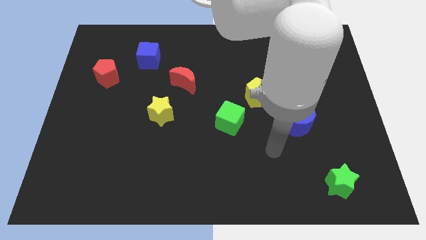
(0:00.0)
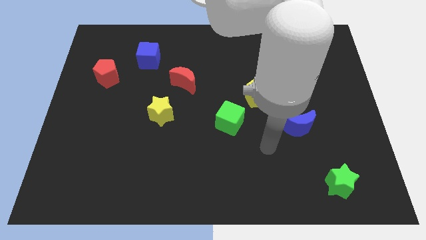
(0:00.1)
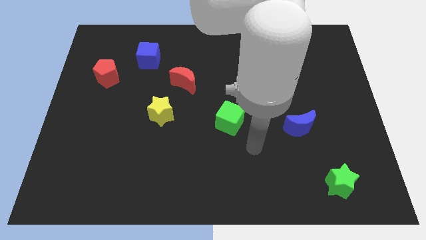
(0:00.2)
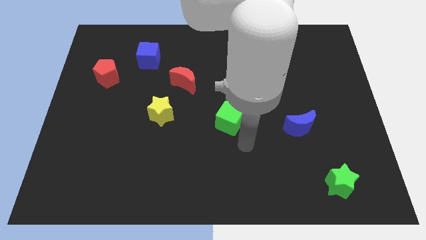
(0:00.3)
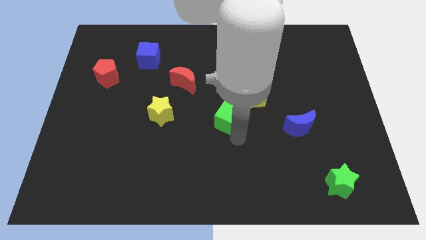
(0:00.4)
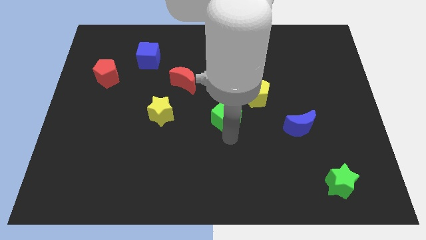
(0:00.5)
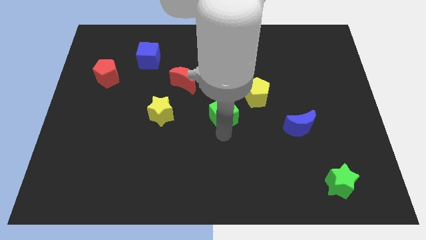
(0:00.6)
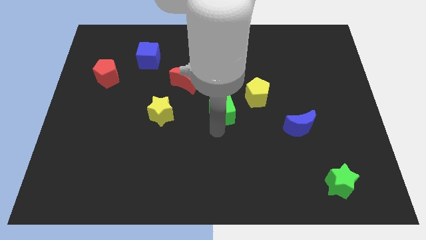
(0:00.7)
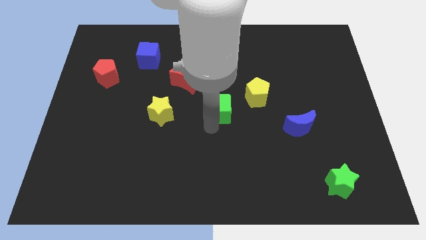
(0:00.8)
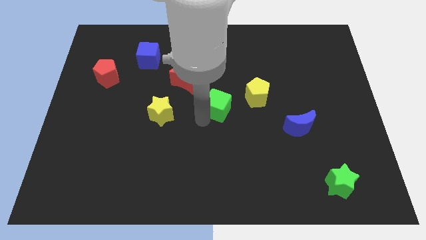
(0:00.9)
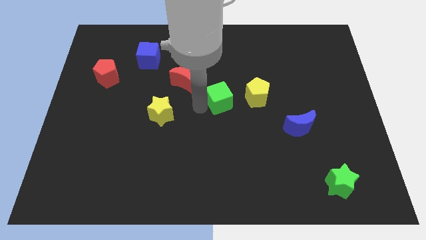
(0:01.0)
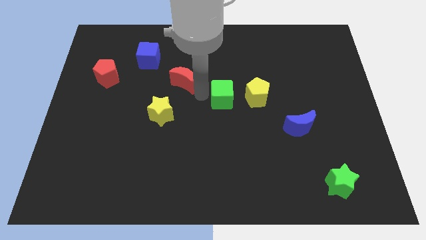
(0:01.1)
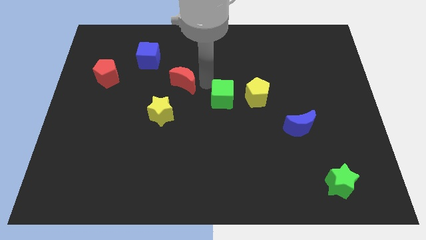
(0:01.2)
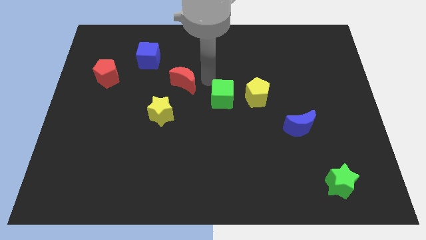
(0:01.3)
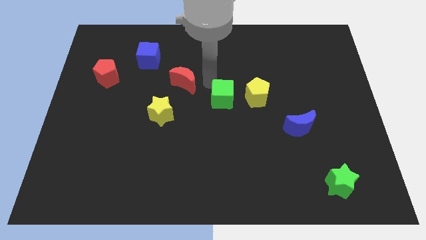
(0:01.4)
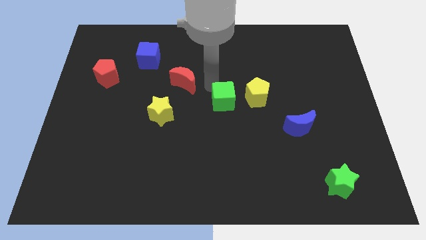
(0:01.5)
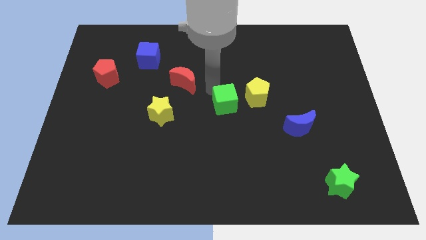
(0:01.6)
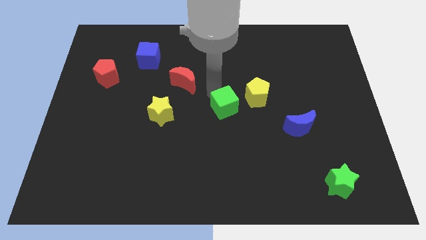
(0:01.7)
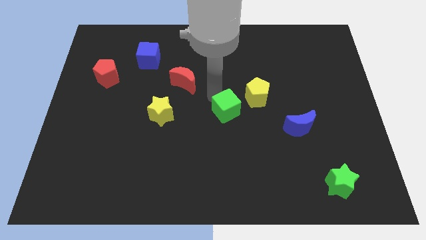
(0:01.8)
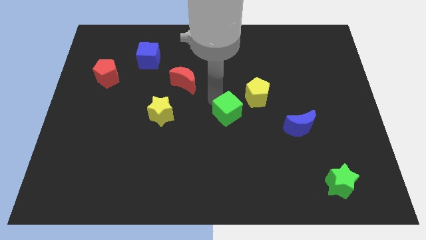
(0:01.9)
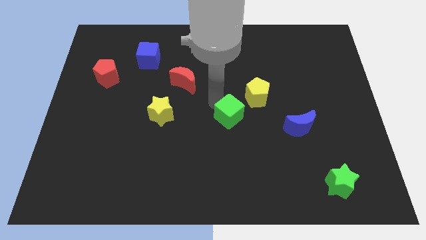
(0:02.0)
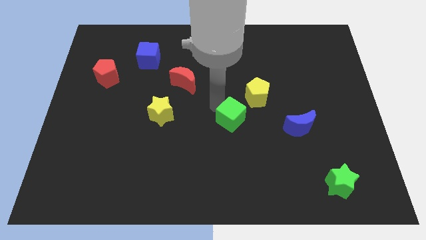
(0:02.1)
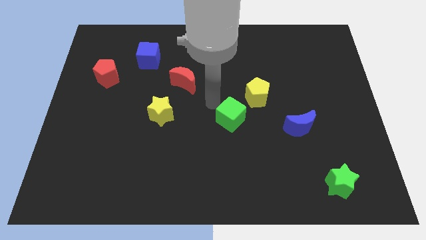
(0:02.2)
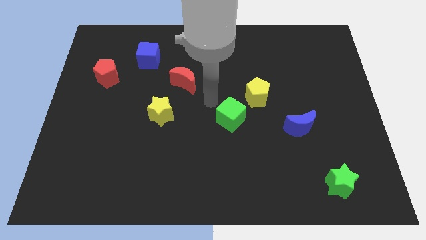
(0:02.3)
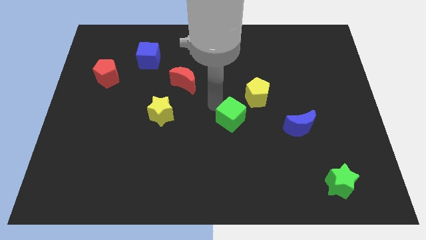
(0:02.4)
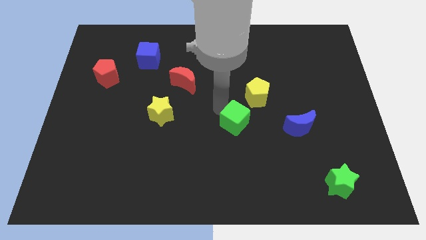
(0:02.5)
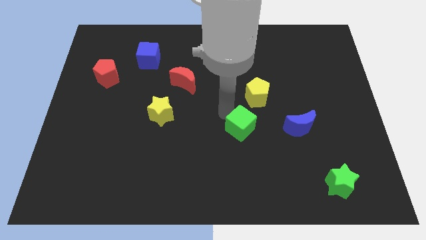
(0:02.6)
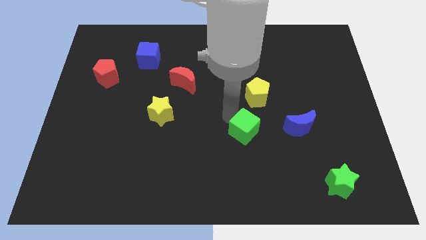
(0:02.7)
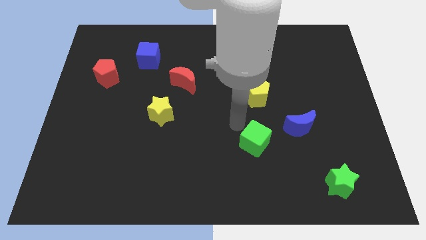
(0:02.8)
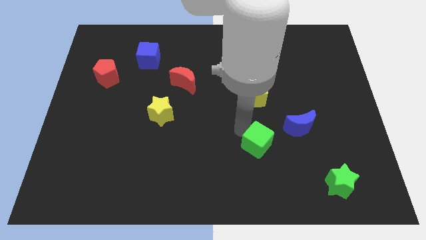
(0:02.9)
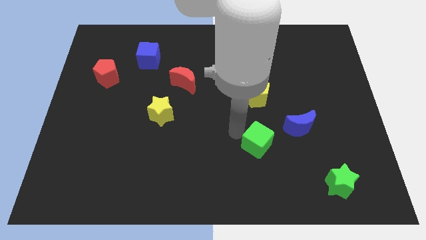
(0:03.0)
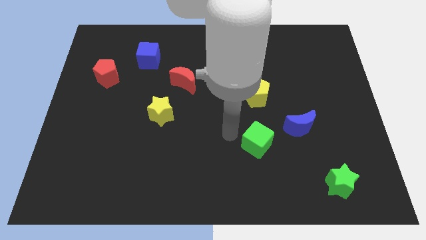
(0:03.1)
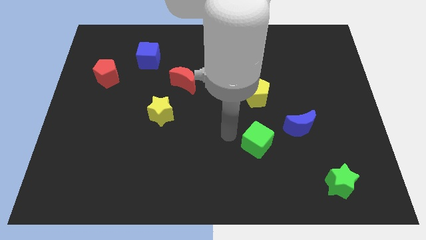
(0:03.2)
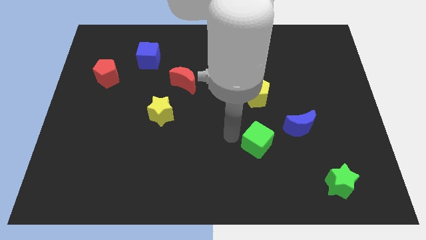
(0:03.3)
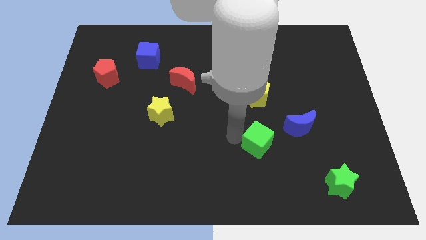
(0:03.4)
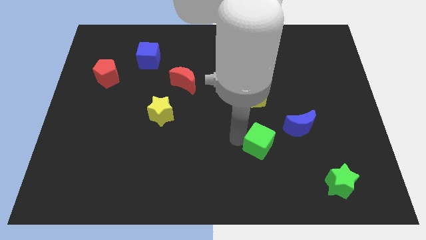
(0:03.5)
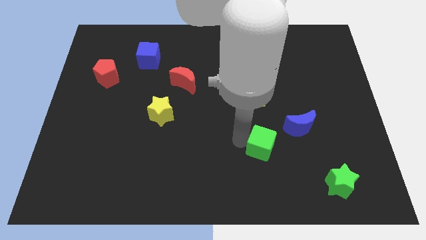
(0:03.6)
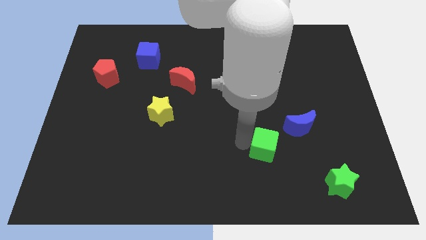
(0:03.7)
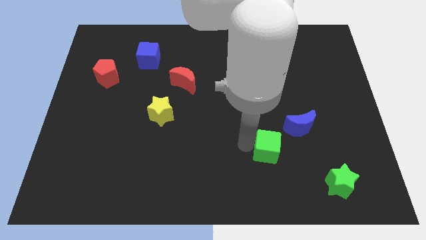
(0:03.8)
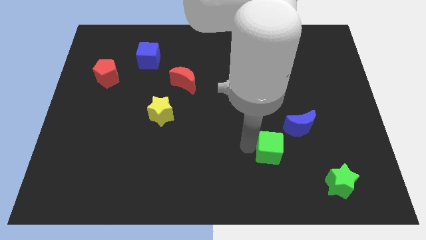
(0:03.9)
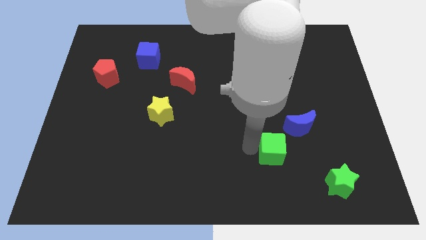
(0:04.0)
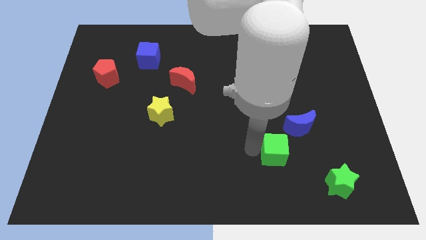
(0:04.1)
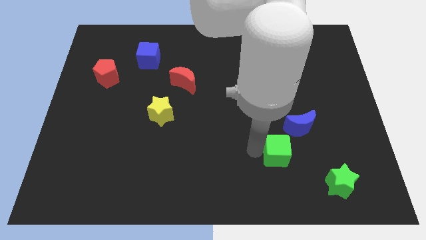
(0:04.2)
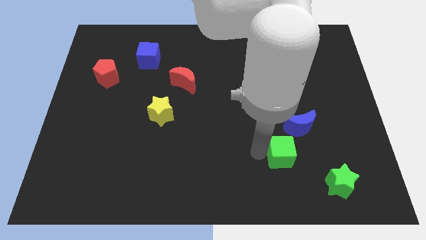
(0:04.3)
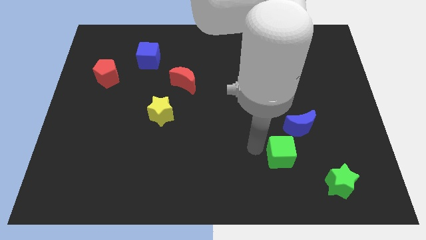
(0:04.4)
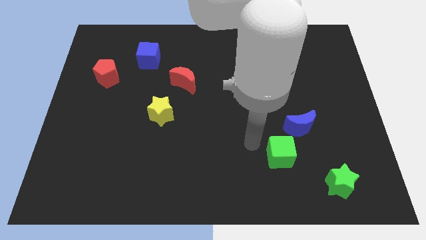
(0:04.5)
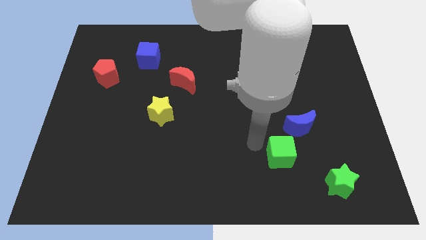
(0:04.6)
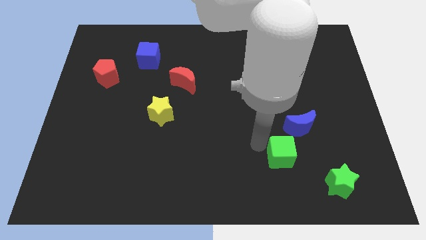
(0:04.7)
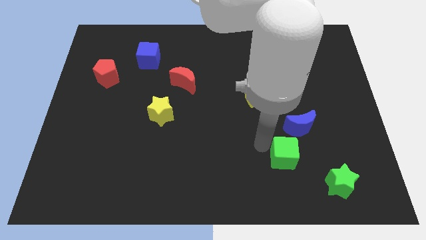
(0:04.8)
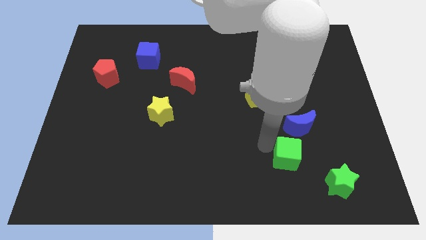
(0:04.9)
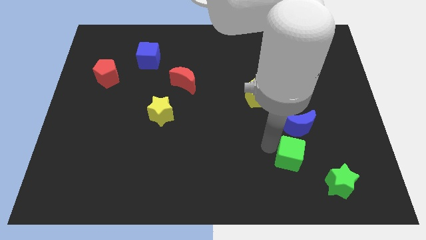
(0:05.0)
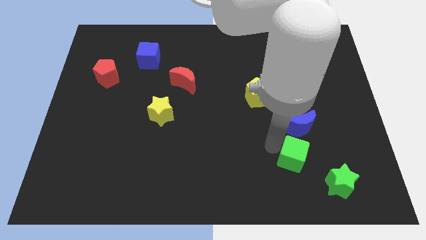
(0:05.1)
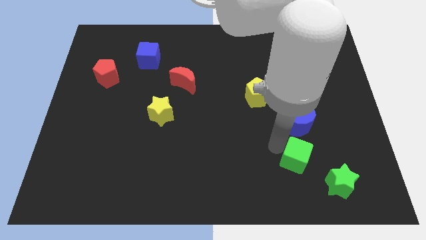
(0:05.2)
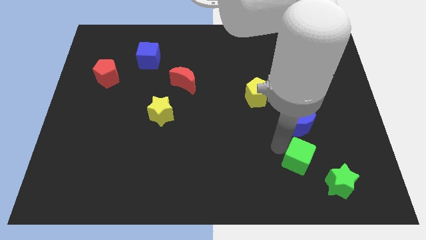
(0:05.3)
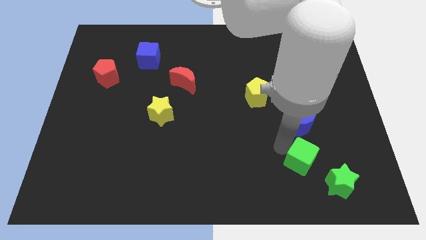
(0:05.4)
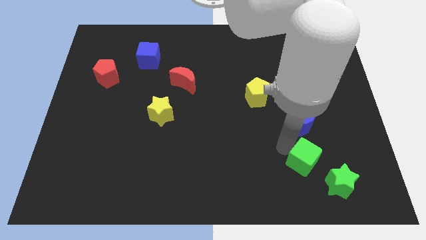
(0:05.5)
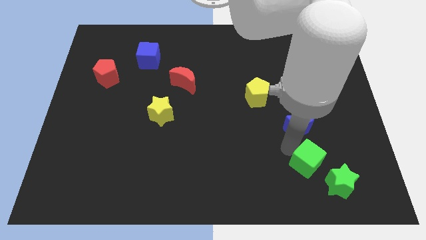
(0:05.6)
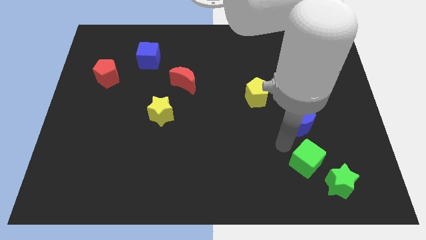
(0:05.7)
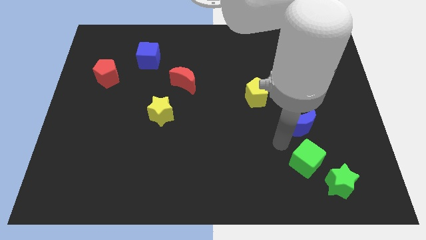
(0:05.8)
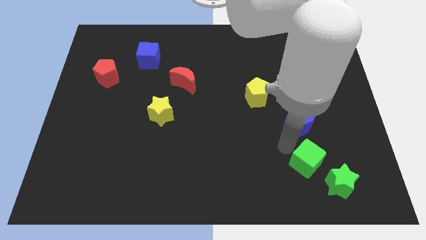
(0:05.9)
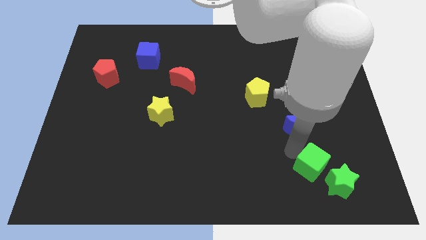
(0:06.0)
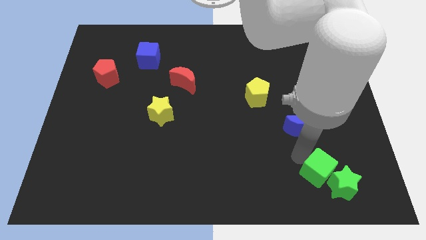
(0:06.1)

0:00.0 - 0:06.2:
put the green cube next to the green star
